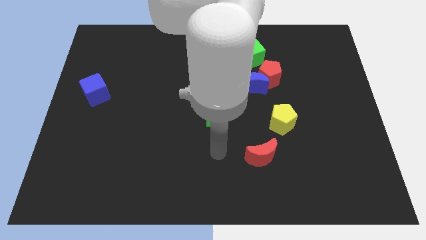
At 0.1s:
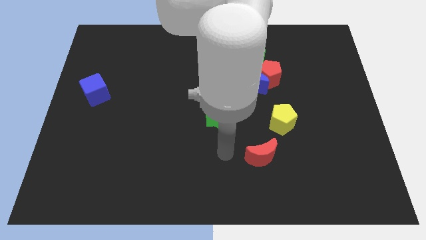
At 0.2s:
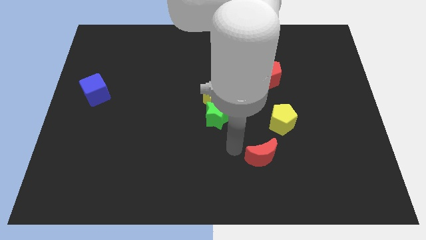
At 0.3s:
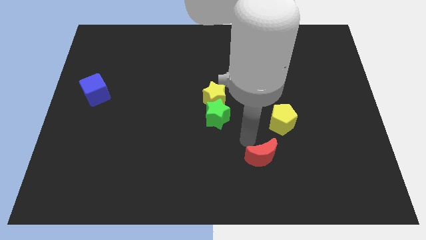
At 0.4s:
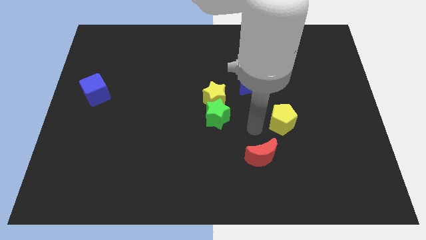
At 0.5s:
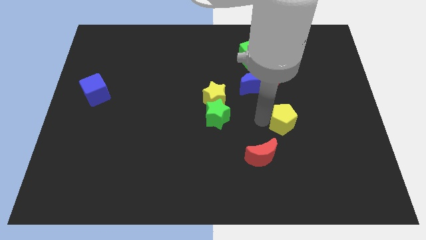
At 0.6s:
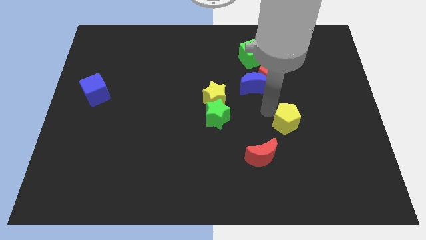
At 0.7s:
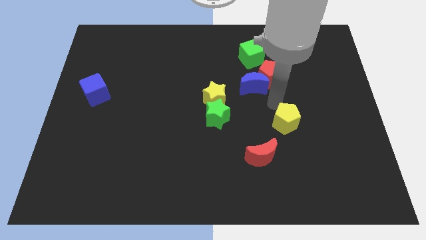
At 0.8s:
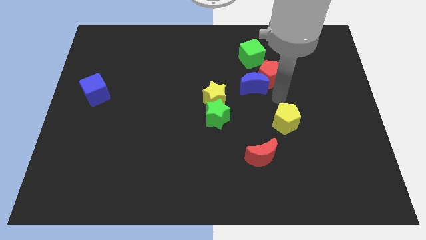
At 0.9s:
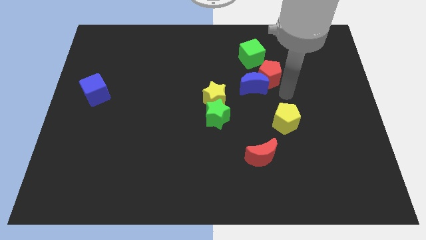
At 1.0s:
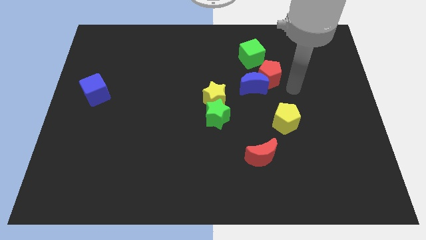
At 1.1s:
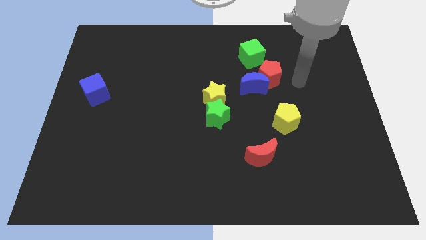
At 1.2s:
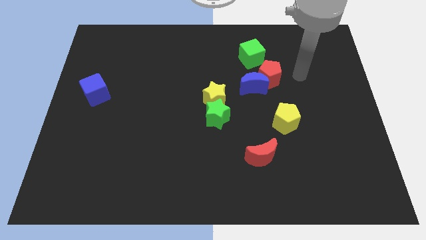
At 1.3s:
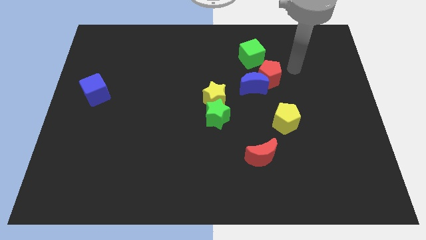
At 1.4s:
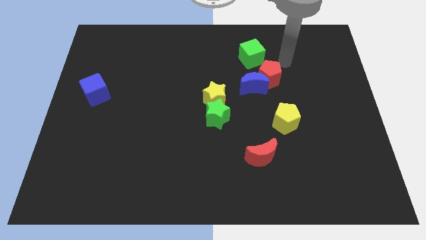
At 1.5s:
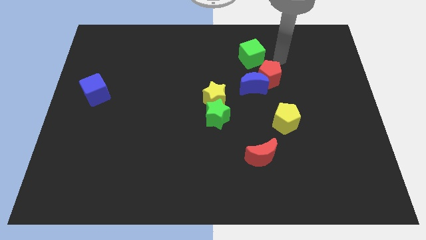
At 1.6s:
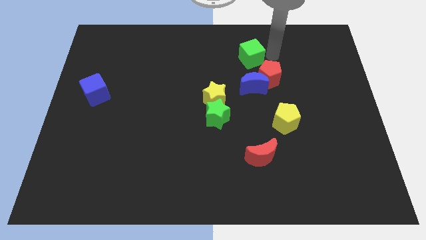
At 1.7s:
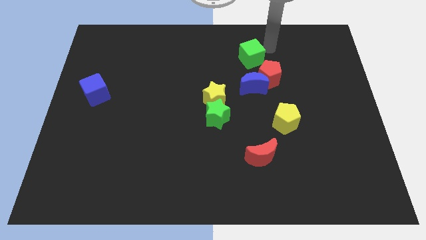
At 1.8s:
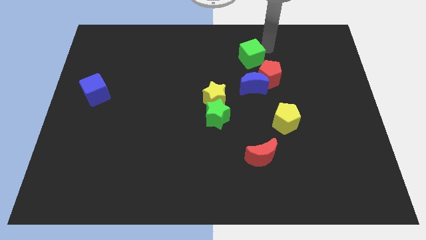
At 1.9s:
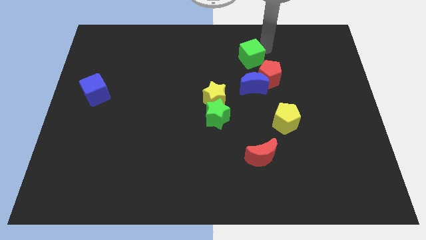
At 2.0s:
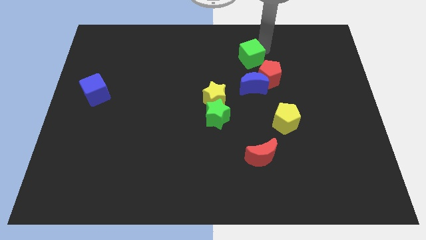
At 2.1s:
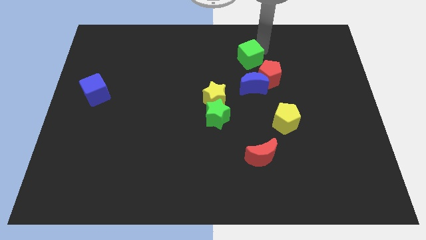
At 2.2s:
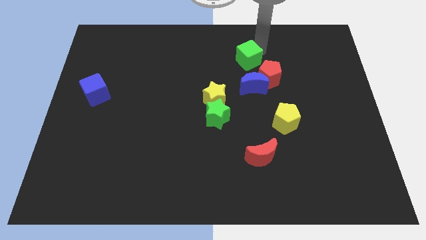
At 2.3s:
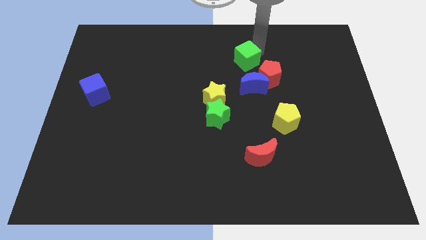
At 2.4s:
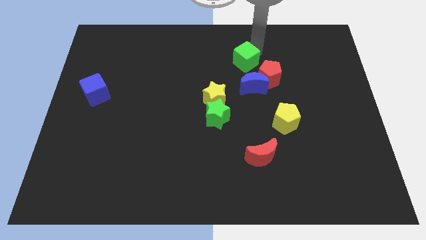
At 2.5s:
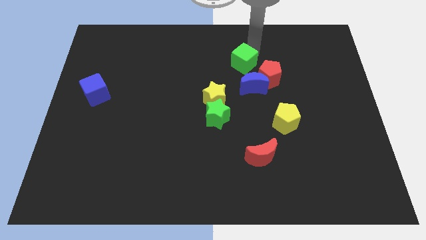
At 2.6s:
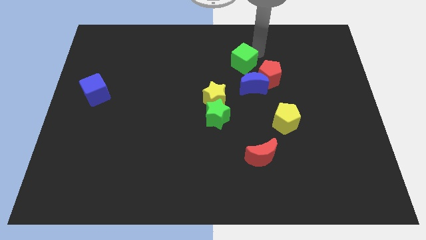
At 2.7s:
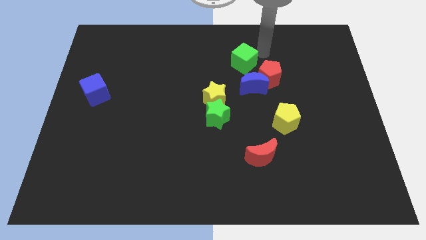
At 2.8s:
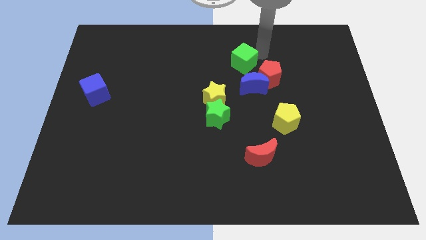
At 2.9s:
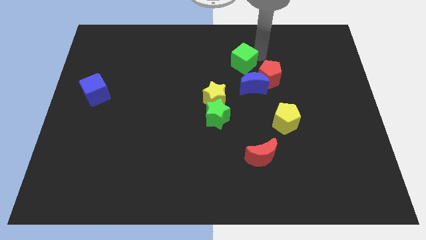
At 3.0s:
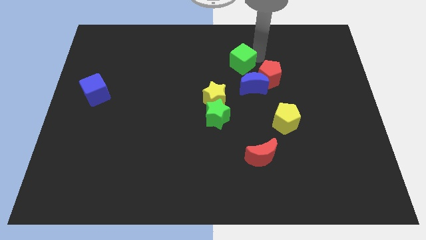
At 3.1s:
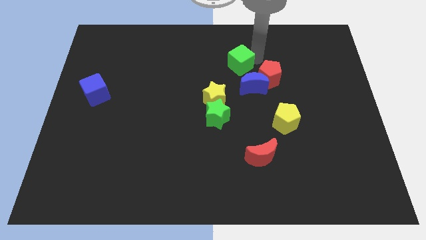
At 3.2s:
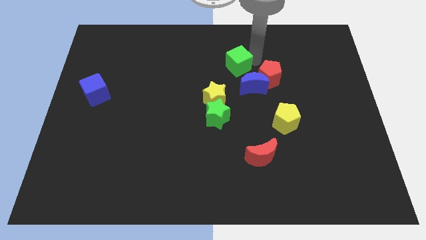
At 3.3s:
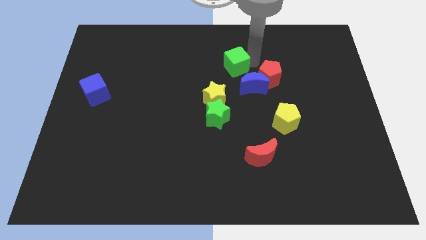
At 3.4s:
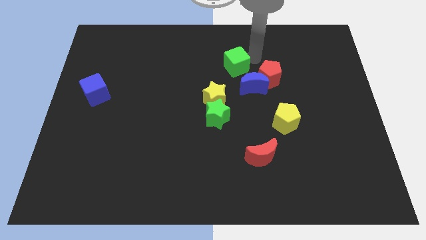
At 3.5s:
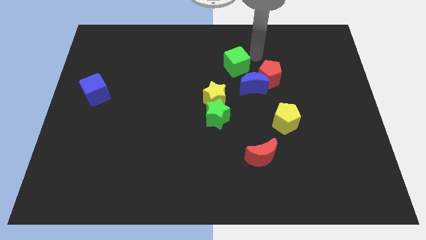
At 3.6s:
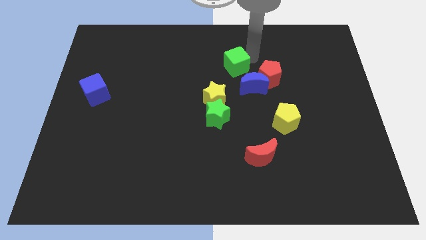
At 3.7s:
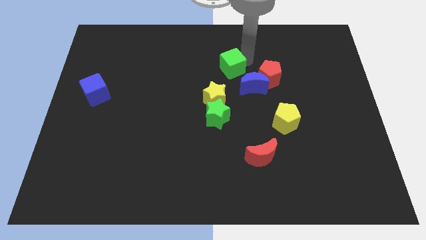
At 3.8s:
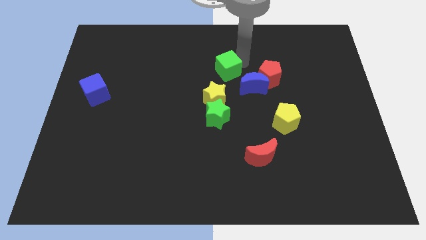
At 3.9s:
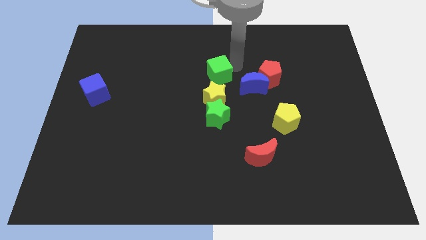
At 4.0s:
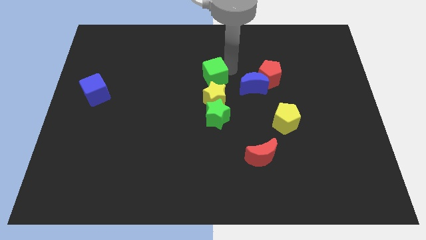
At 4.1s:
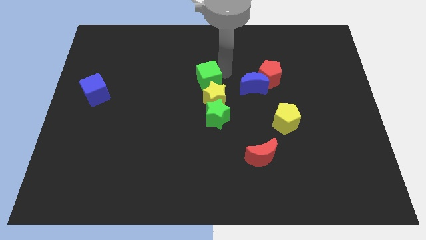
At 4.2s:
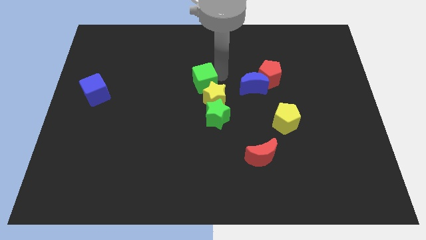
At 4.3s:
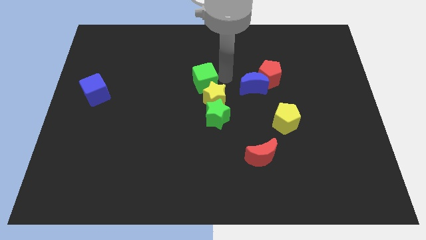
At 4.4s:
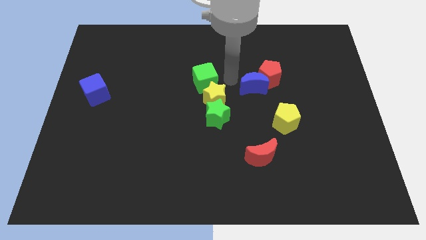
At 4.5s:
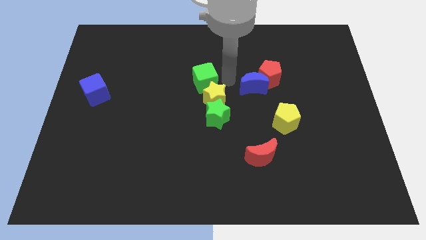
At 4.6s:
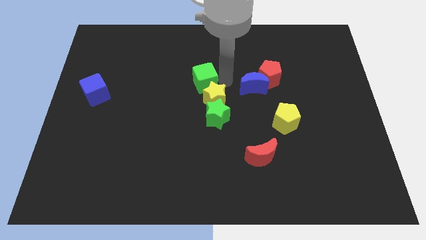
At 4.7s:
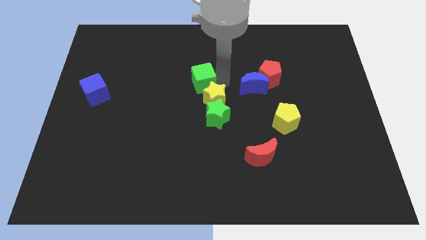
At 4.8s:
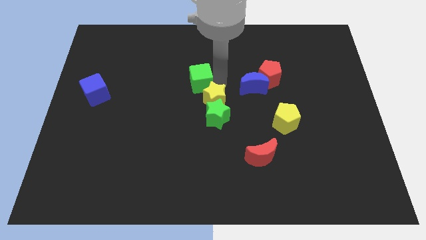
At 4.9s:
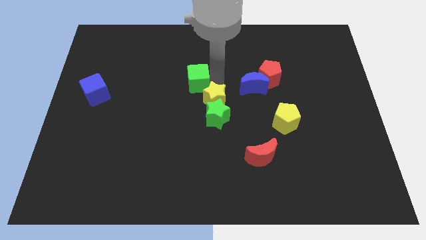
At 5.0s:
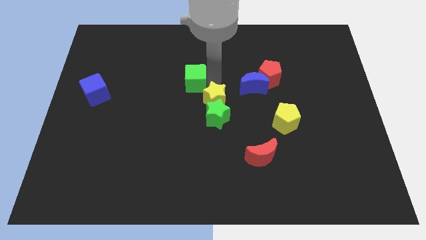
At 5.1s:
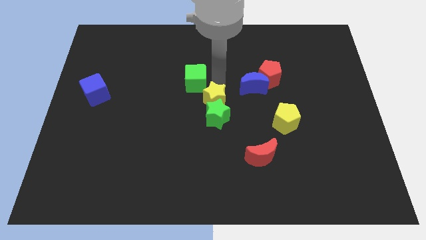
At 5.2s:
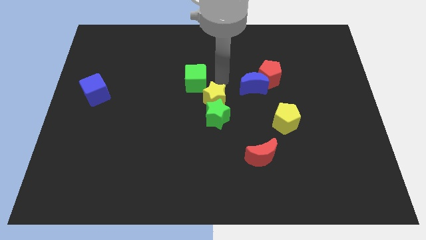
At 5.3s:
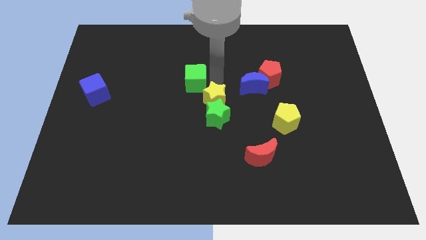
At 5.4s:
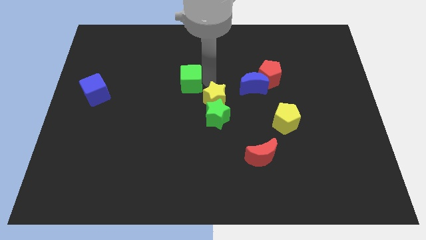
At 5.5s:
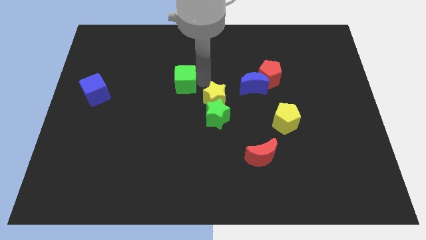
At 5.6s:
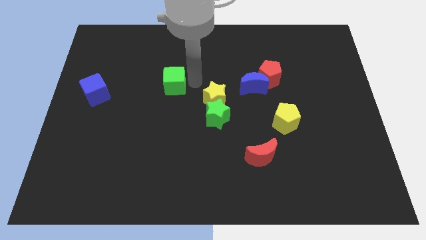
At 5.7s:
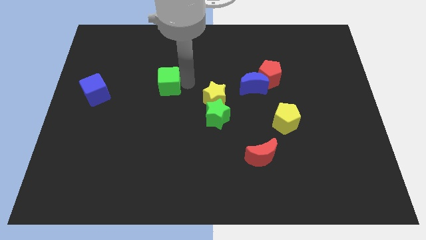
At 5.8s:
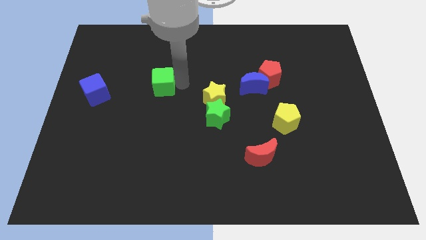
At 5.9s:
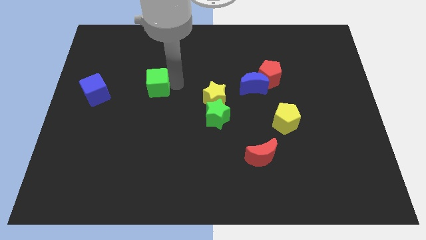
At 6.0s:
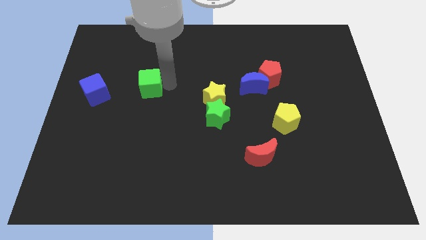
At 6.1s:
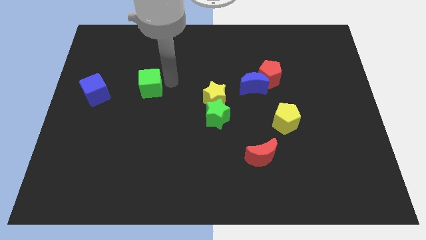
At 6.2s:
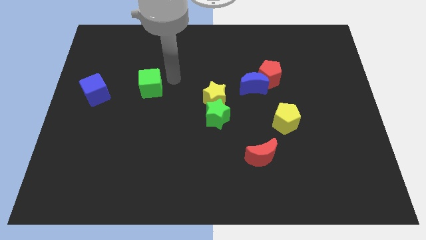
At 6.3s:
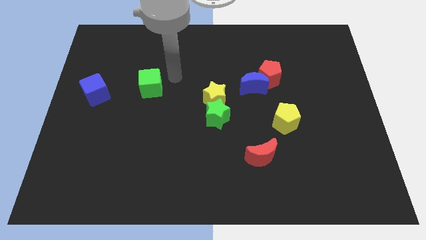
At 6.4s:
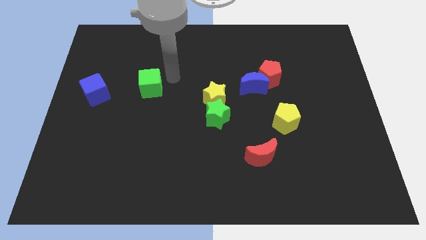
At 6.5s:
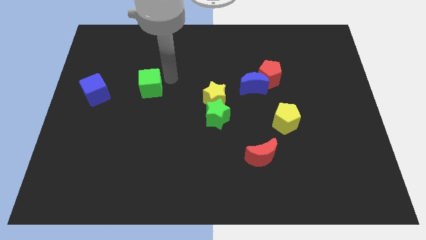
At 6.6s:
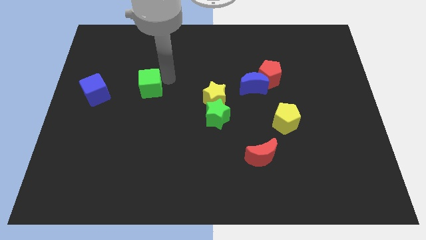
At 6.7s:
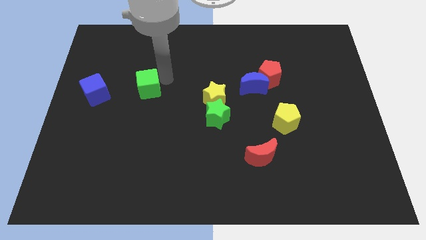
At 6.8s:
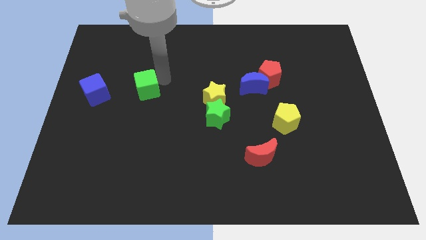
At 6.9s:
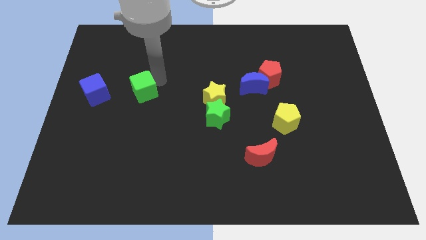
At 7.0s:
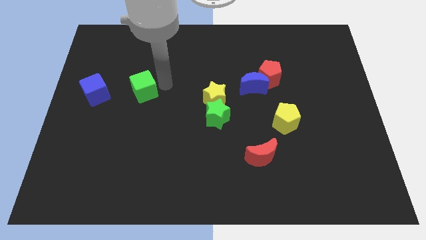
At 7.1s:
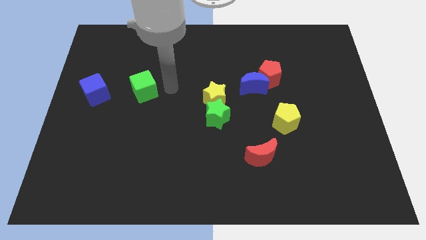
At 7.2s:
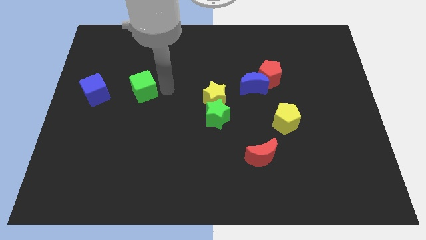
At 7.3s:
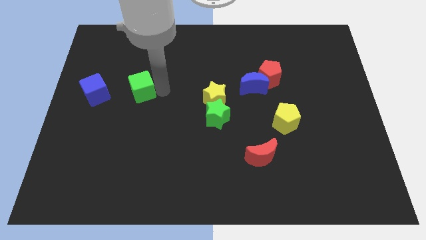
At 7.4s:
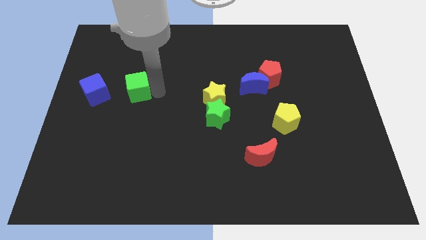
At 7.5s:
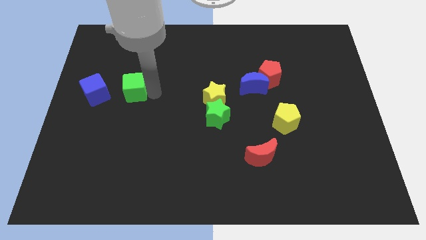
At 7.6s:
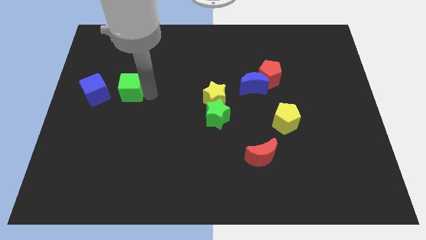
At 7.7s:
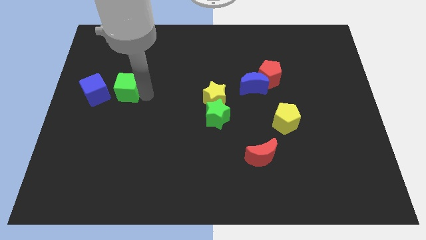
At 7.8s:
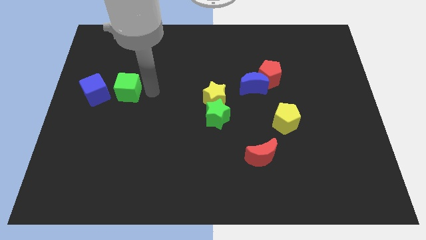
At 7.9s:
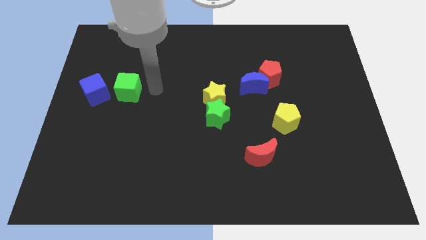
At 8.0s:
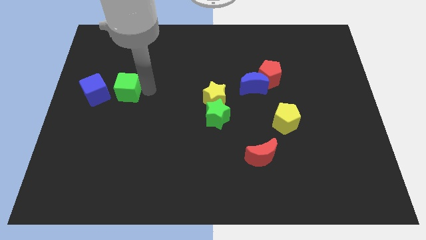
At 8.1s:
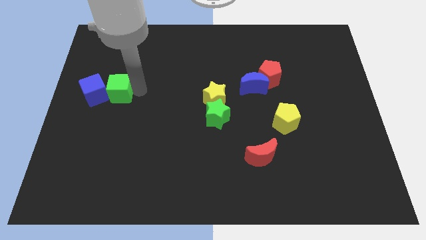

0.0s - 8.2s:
slide the green cube towards the blue cube
